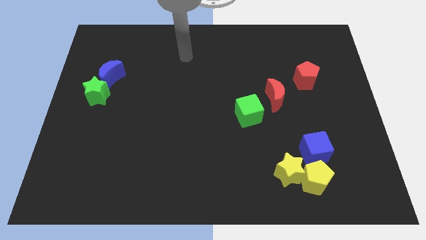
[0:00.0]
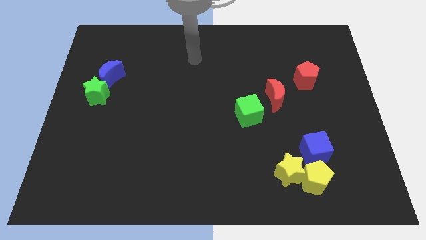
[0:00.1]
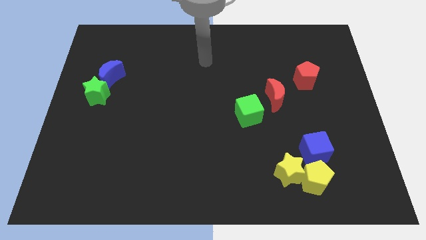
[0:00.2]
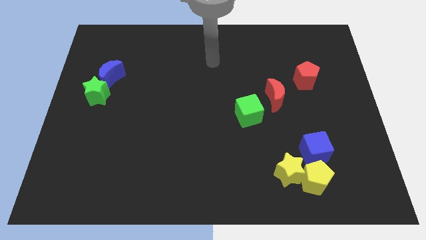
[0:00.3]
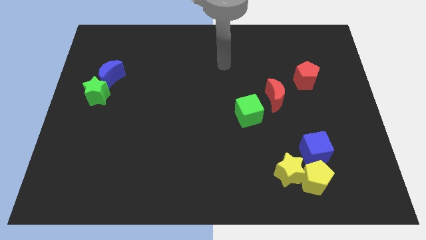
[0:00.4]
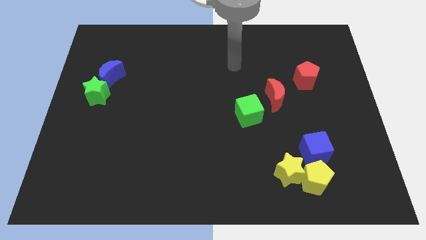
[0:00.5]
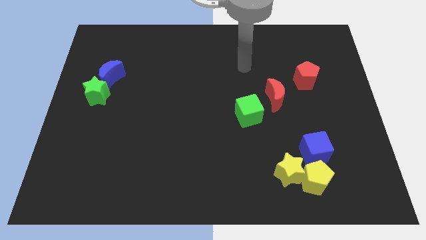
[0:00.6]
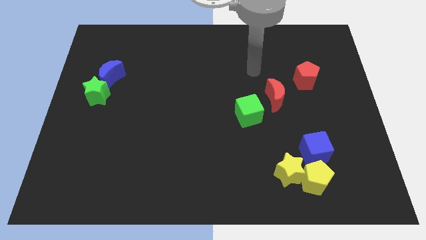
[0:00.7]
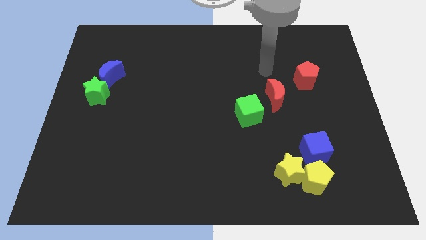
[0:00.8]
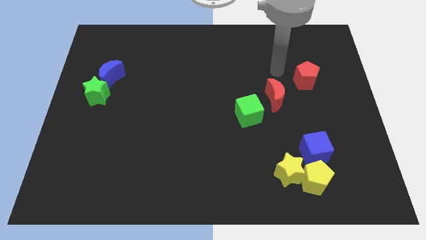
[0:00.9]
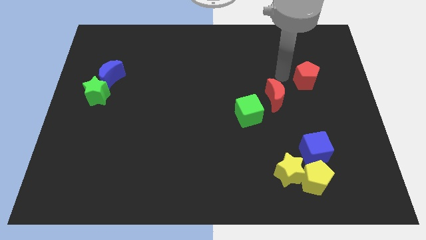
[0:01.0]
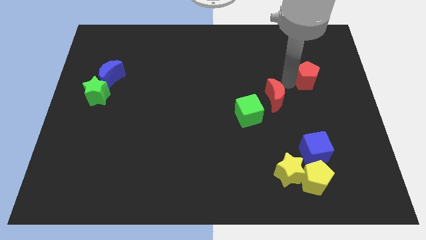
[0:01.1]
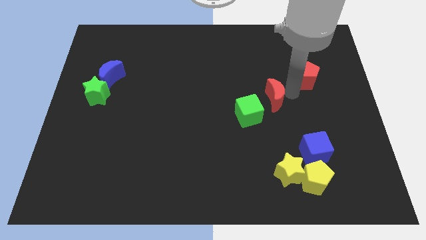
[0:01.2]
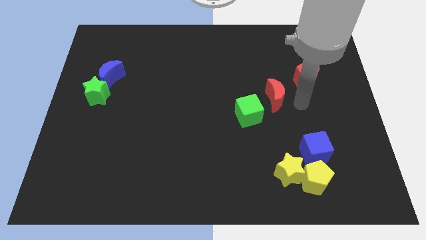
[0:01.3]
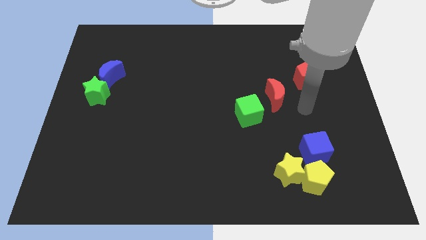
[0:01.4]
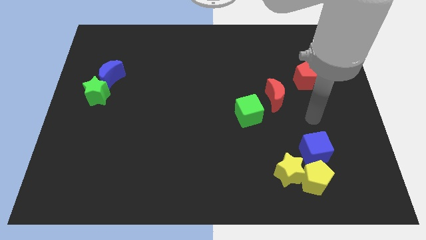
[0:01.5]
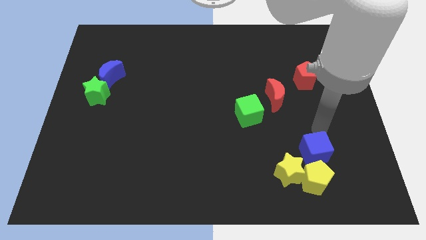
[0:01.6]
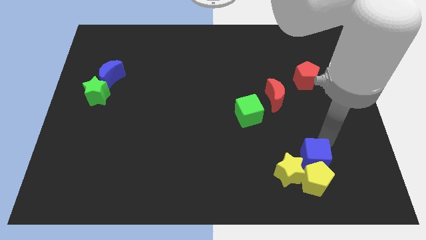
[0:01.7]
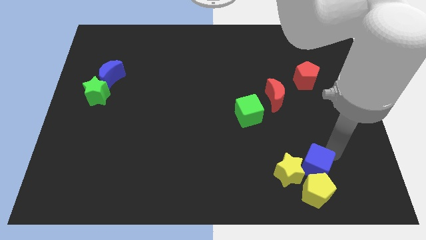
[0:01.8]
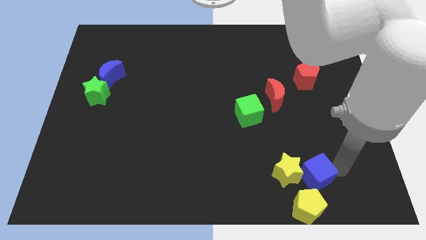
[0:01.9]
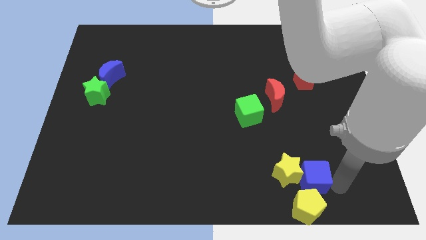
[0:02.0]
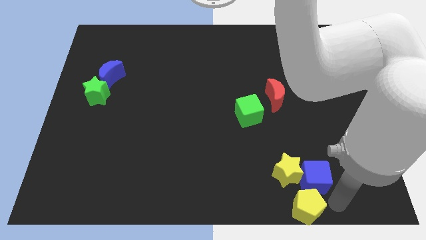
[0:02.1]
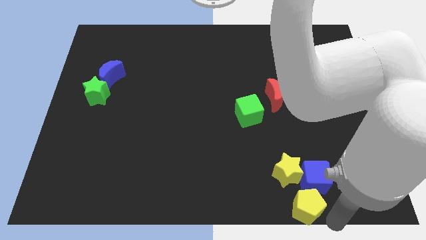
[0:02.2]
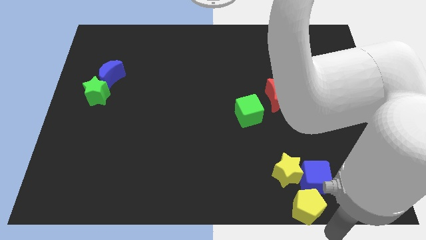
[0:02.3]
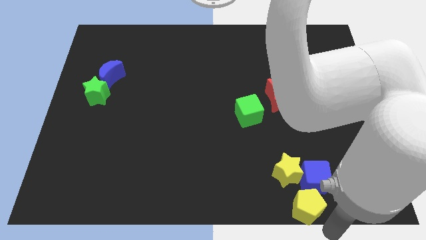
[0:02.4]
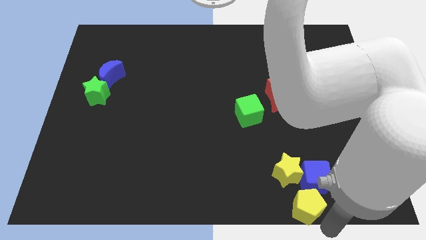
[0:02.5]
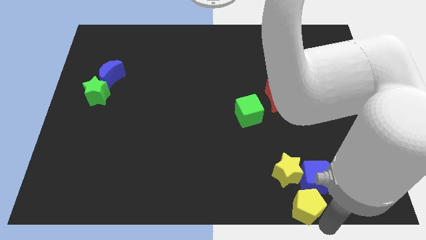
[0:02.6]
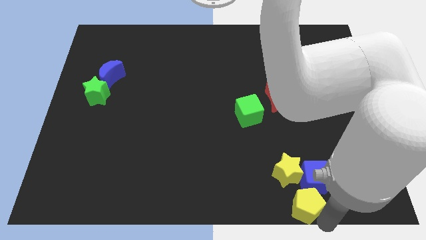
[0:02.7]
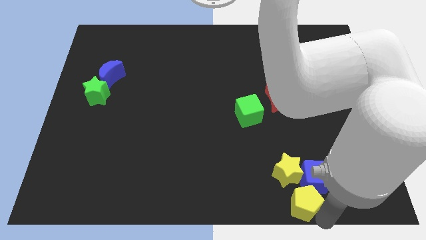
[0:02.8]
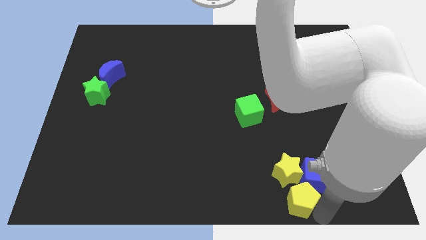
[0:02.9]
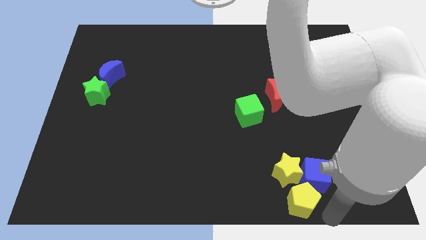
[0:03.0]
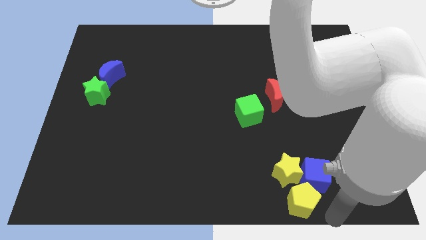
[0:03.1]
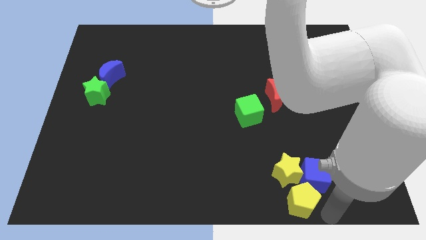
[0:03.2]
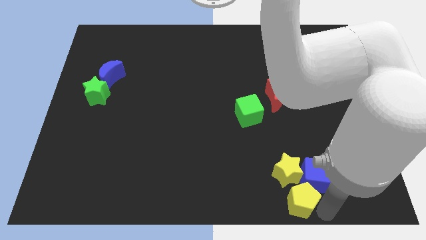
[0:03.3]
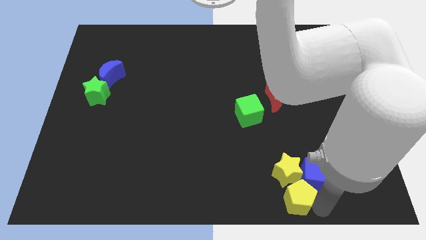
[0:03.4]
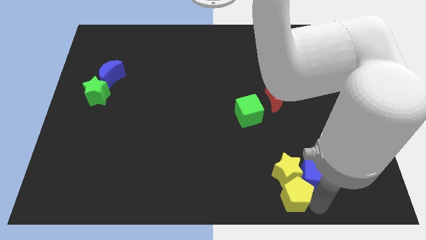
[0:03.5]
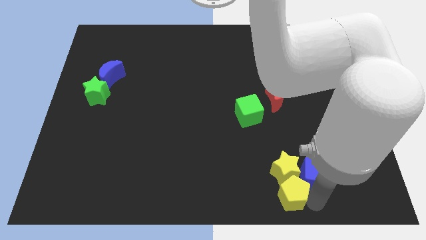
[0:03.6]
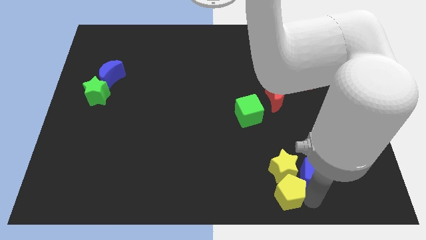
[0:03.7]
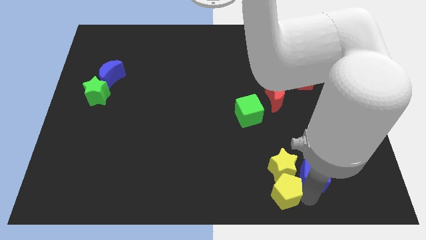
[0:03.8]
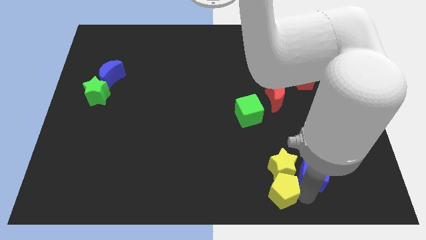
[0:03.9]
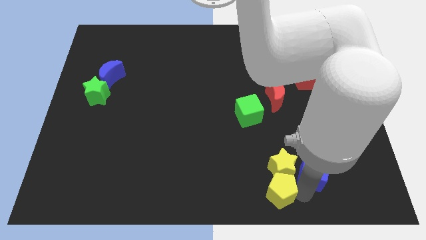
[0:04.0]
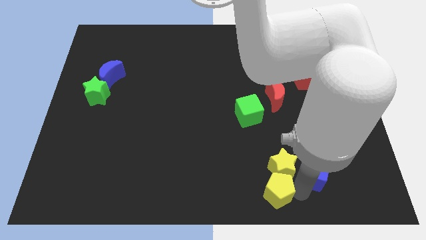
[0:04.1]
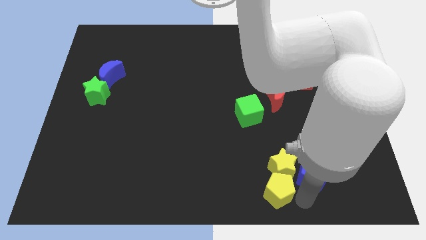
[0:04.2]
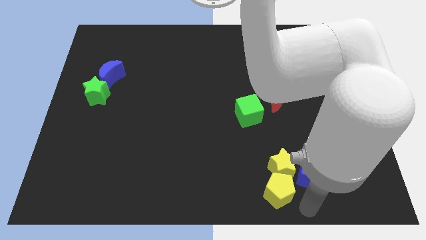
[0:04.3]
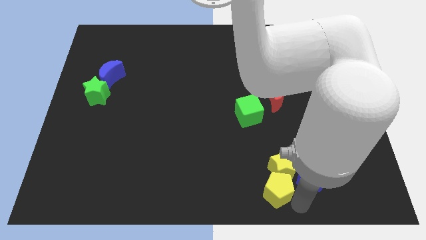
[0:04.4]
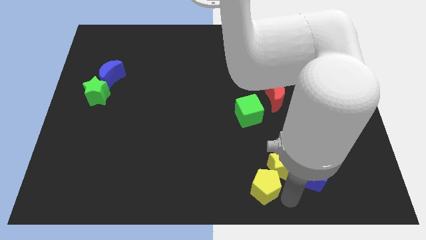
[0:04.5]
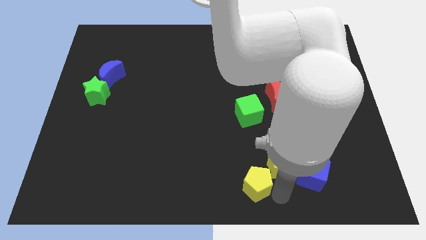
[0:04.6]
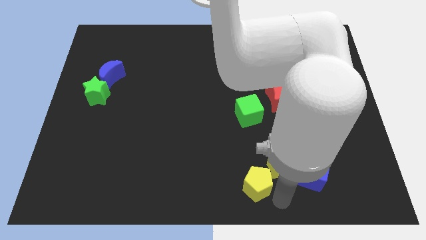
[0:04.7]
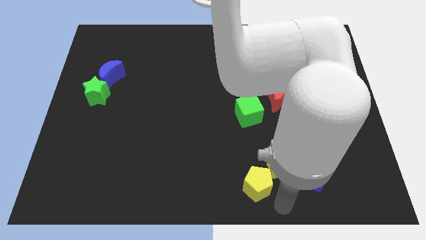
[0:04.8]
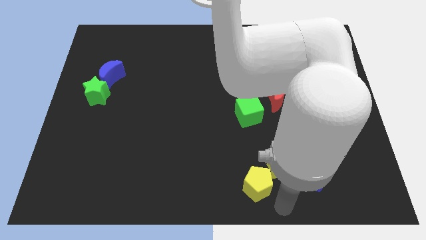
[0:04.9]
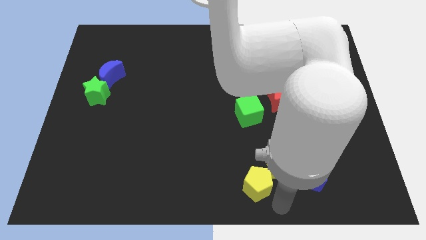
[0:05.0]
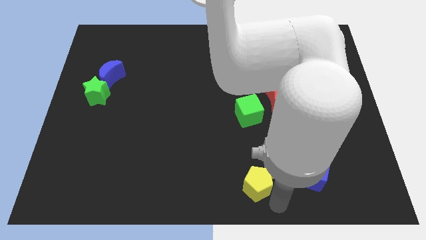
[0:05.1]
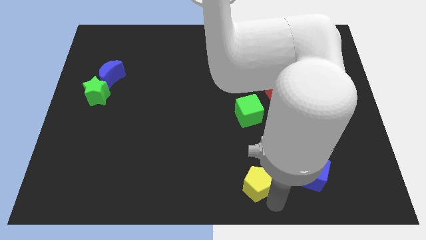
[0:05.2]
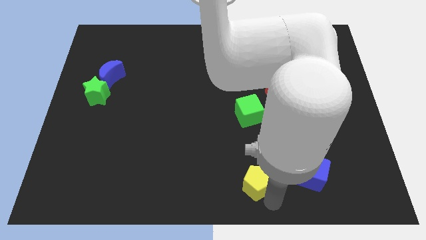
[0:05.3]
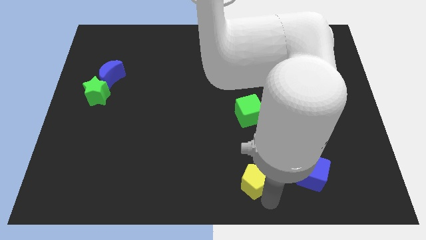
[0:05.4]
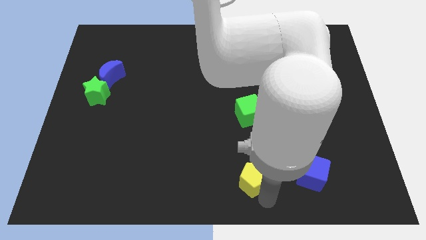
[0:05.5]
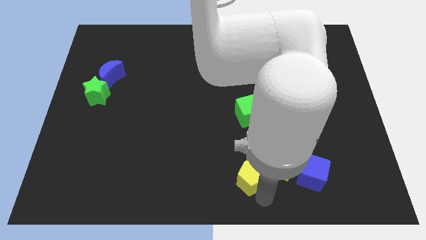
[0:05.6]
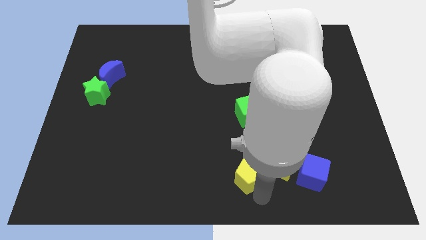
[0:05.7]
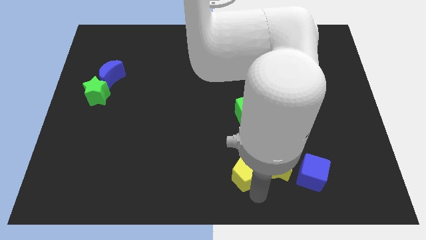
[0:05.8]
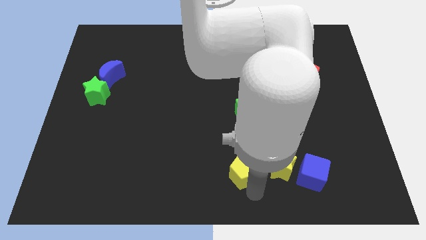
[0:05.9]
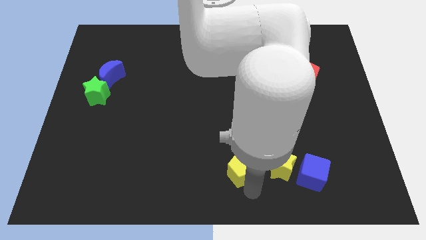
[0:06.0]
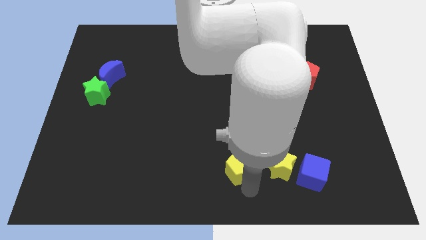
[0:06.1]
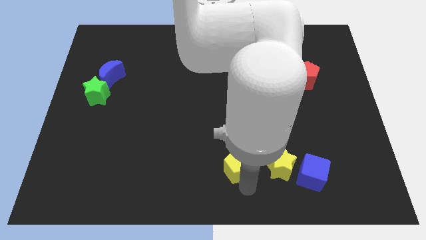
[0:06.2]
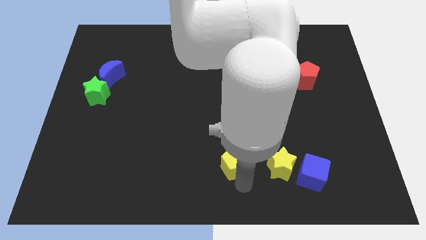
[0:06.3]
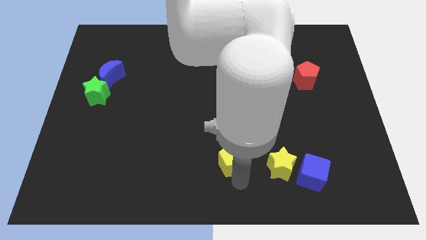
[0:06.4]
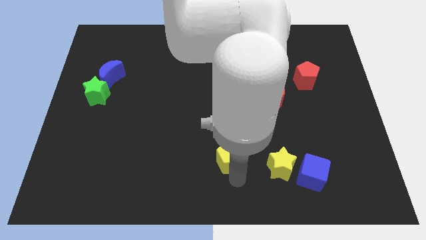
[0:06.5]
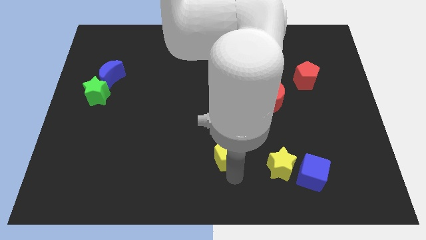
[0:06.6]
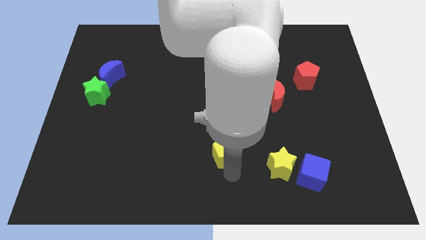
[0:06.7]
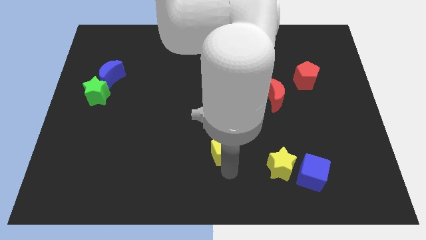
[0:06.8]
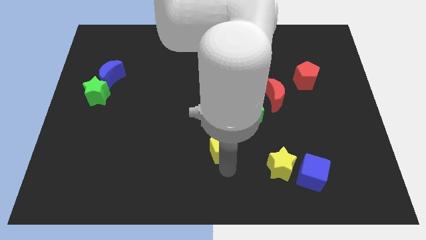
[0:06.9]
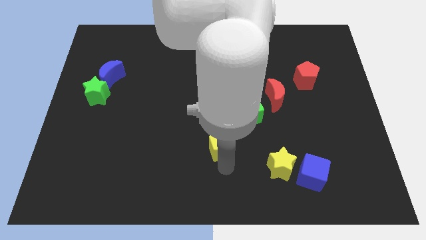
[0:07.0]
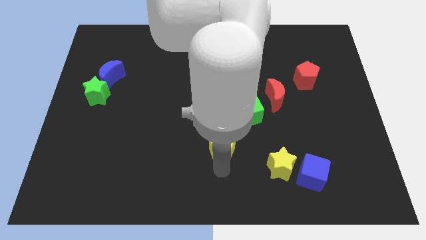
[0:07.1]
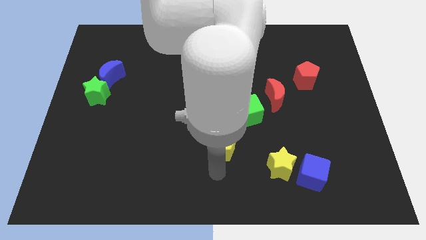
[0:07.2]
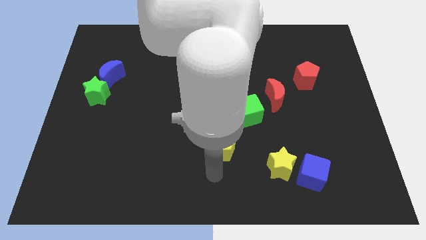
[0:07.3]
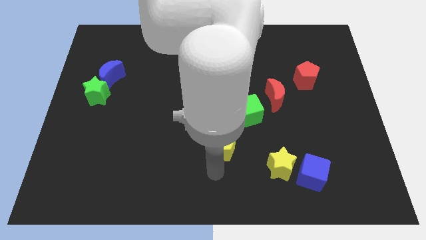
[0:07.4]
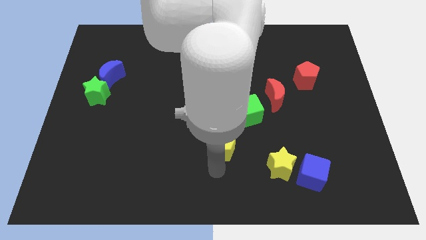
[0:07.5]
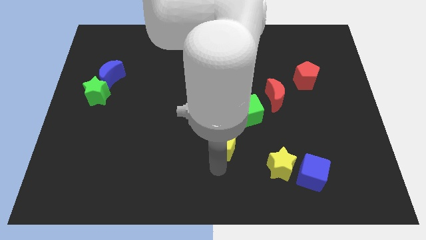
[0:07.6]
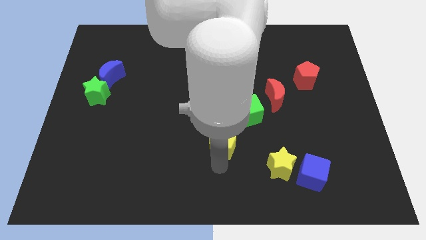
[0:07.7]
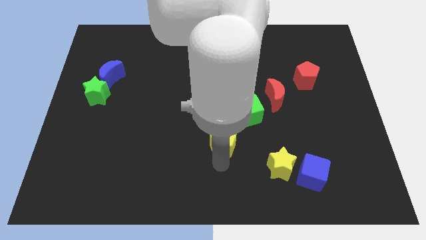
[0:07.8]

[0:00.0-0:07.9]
push the yellow pentagon to the center of the board
